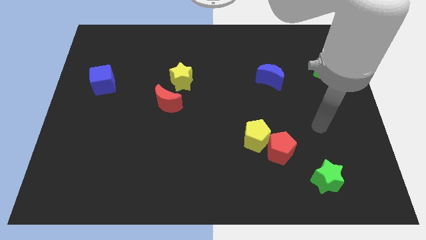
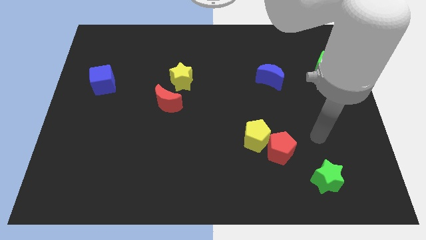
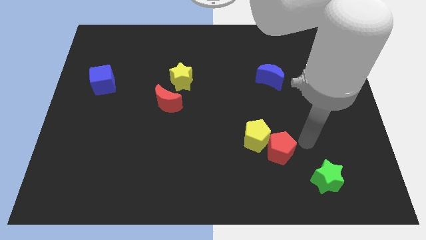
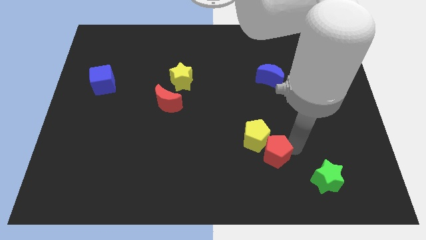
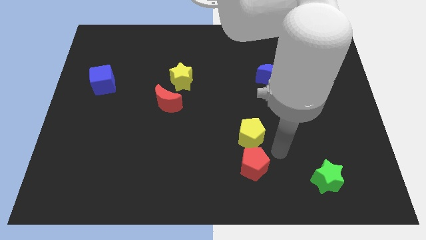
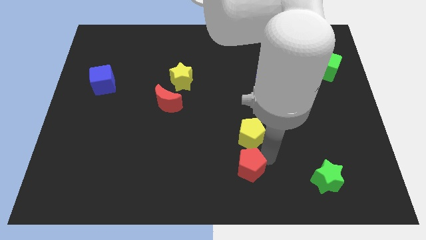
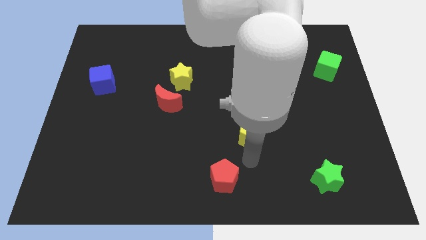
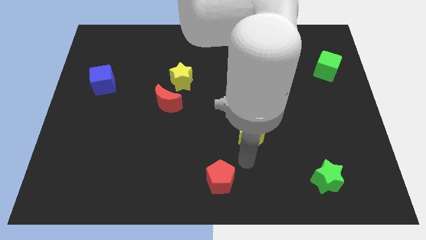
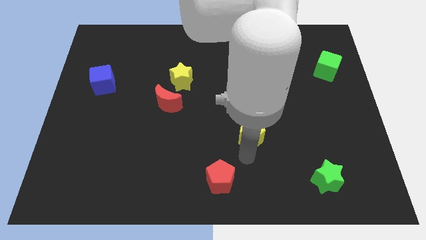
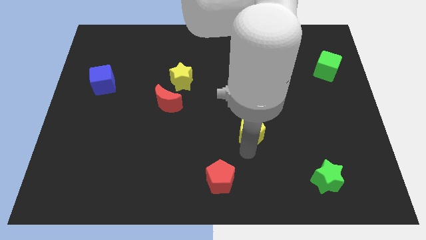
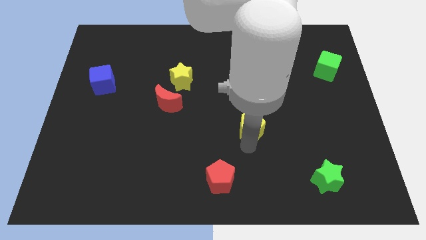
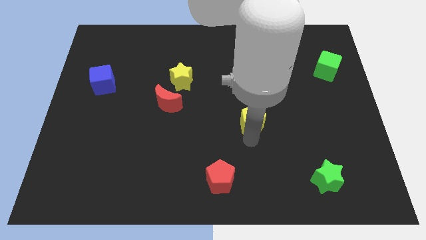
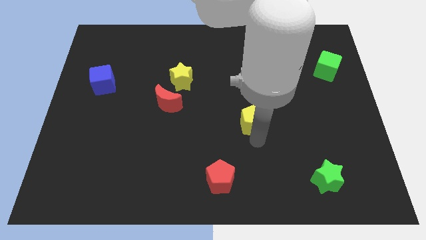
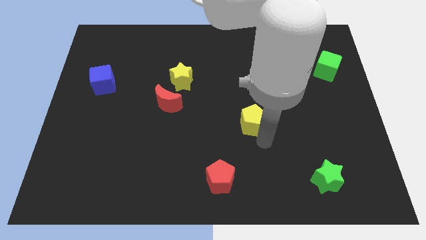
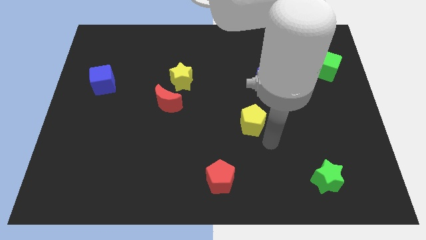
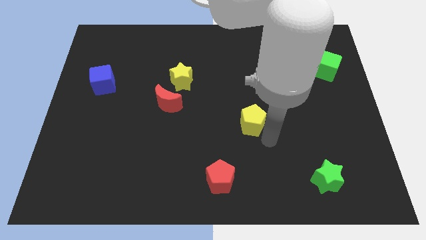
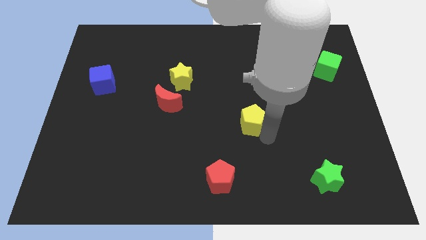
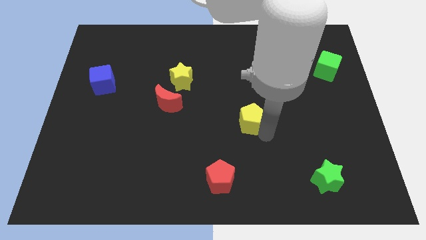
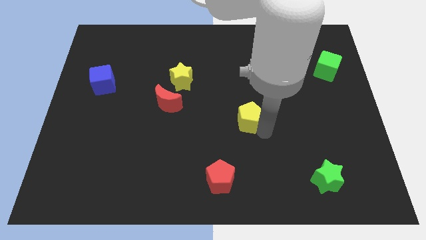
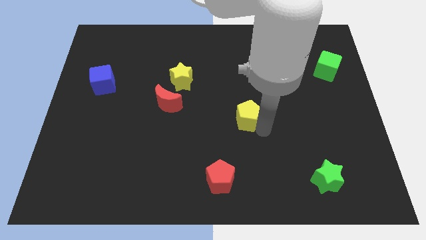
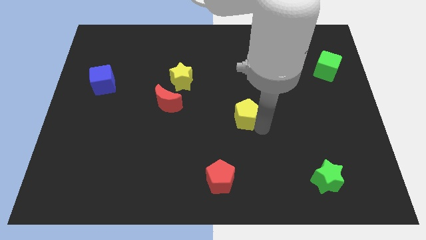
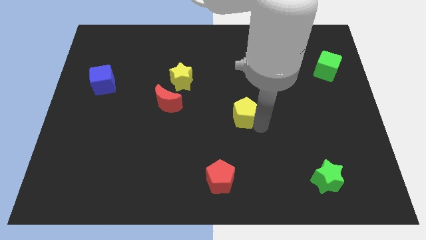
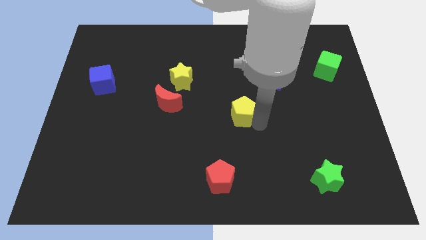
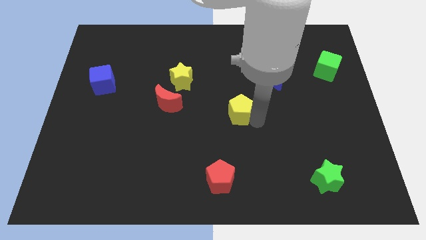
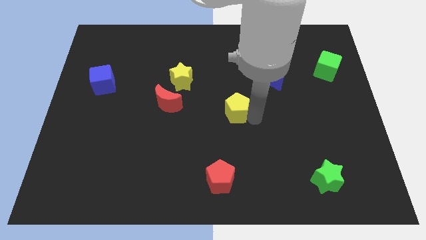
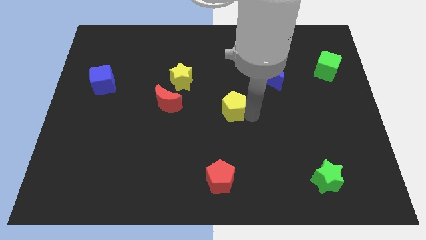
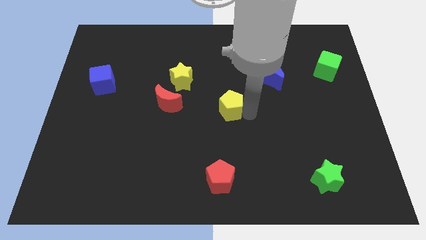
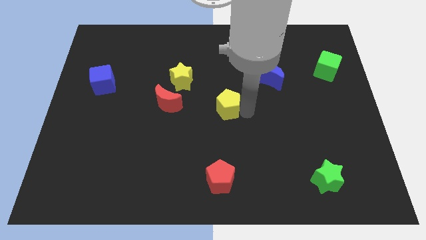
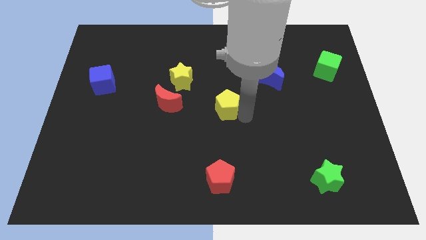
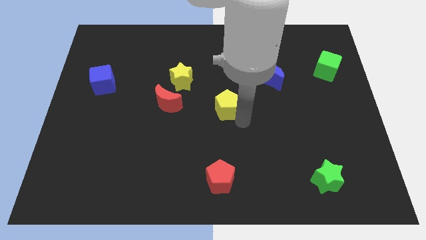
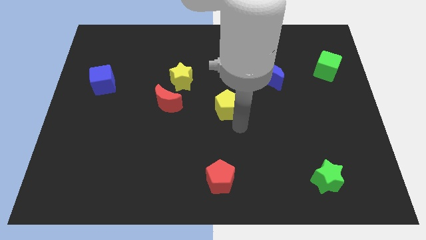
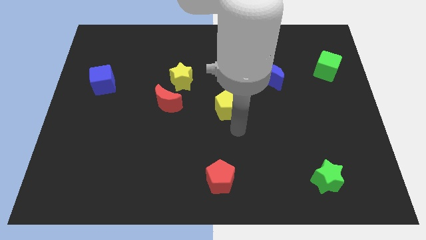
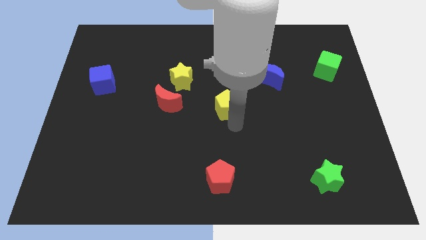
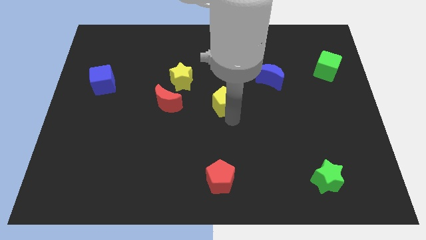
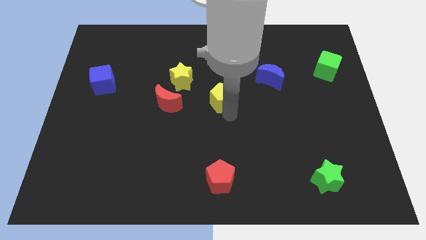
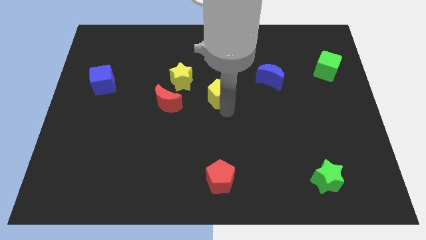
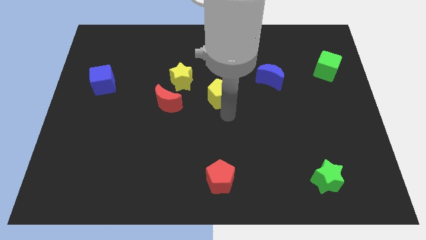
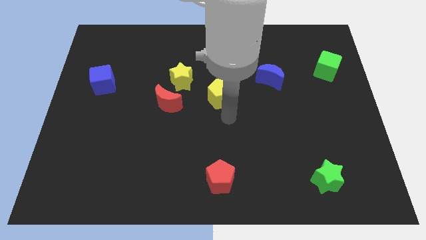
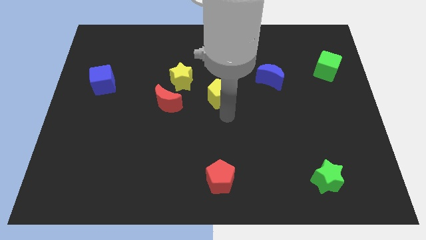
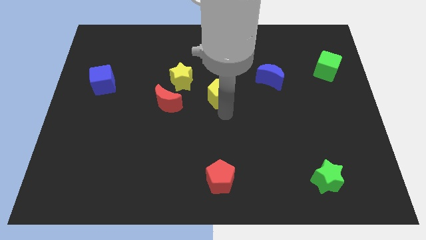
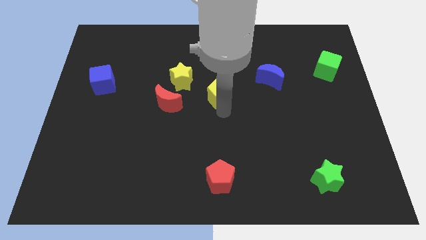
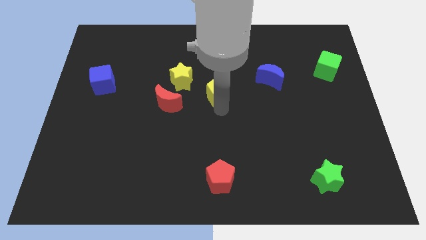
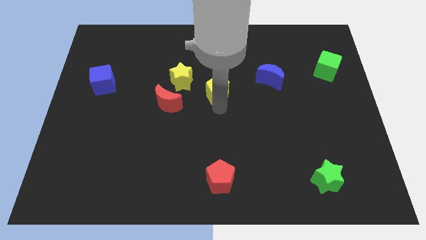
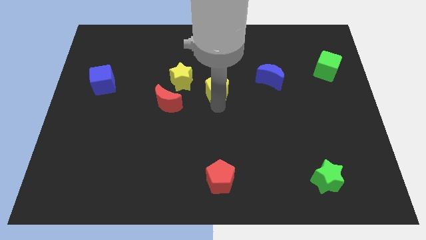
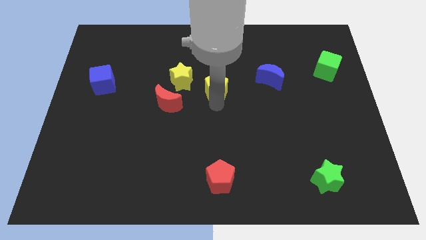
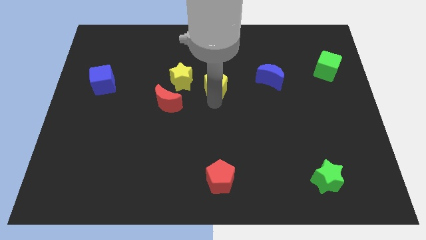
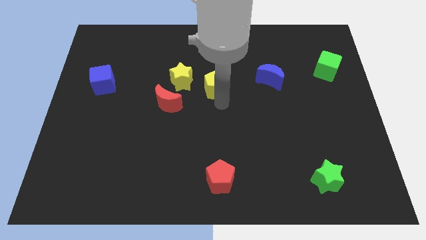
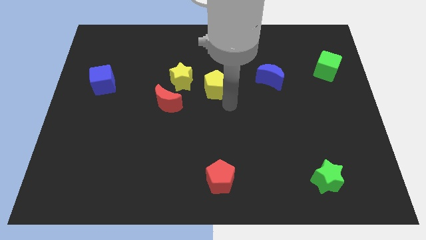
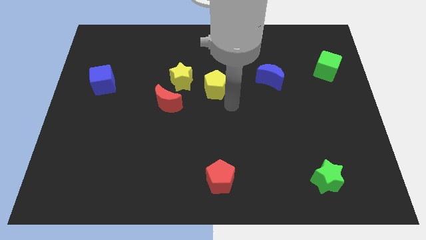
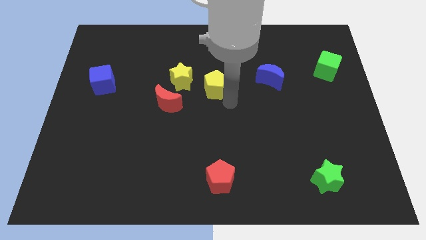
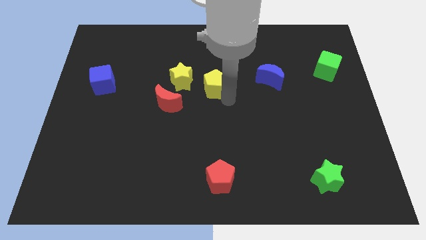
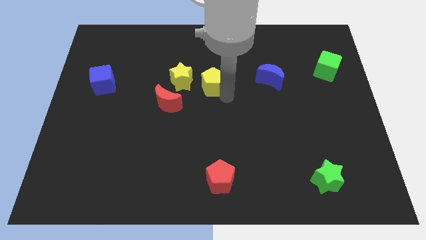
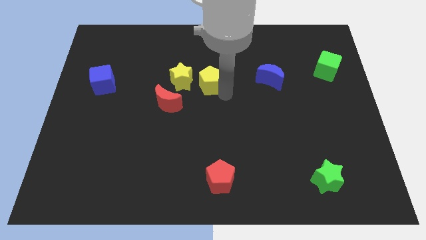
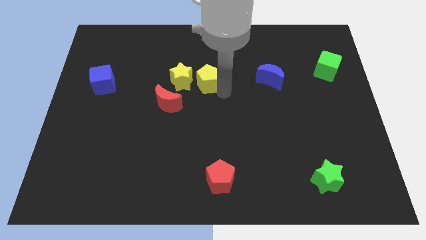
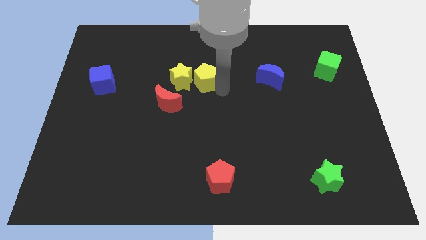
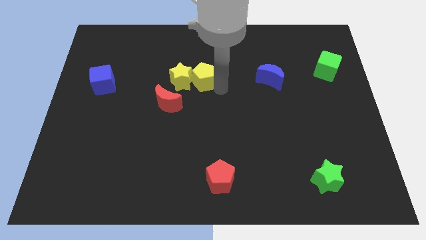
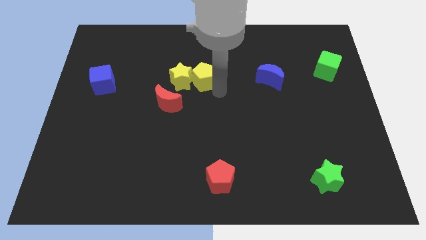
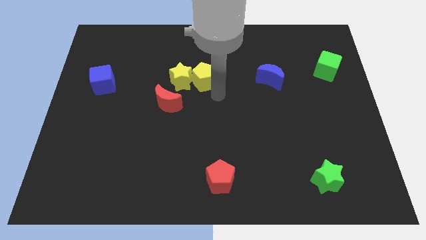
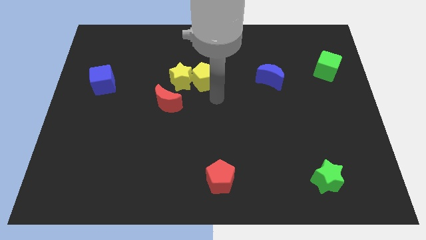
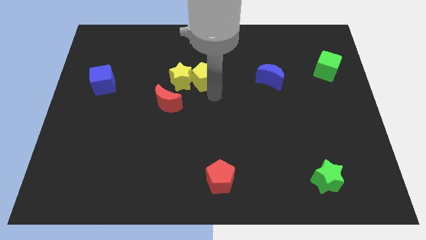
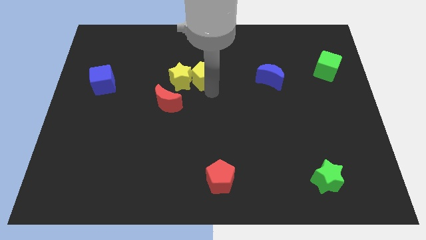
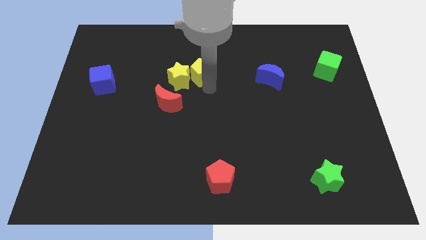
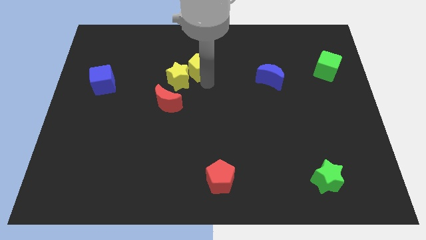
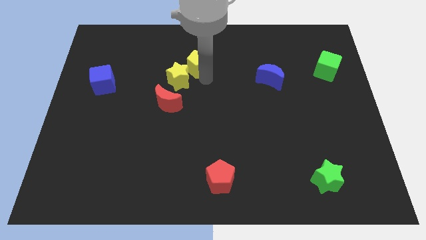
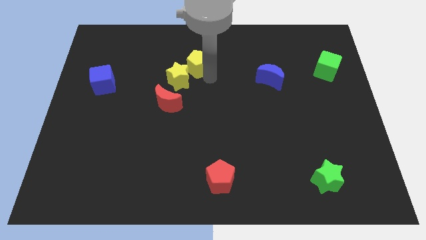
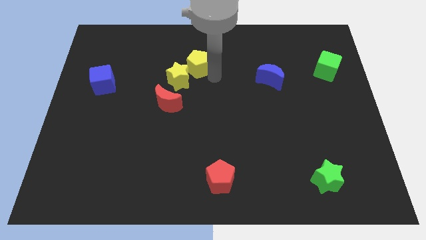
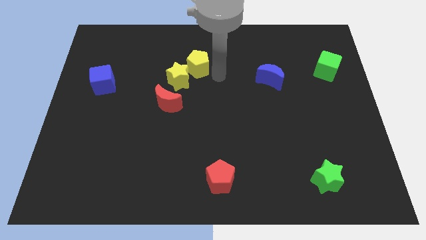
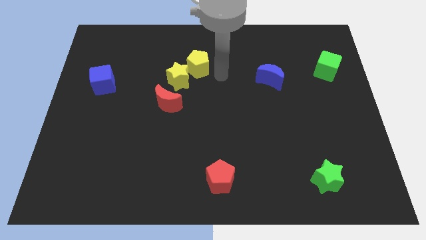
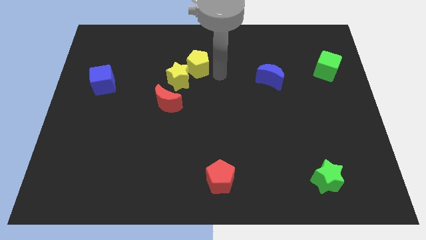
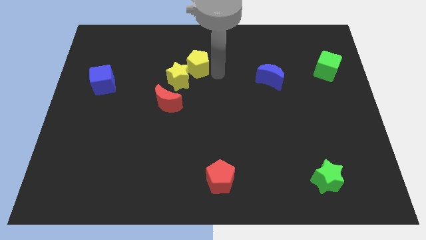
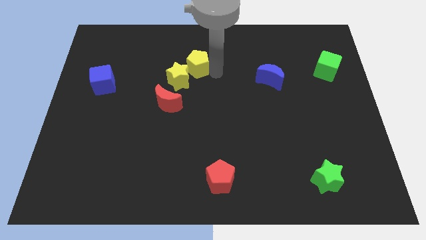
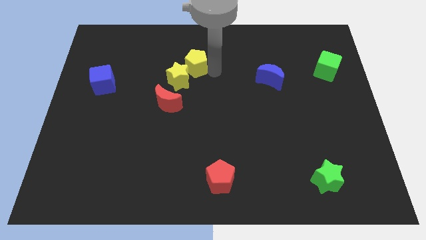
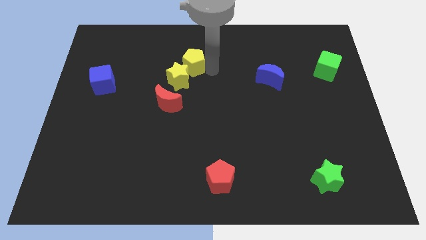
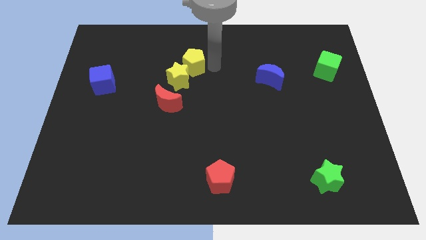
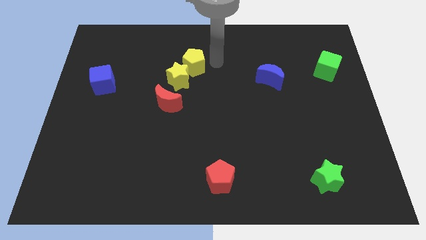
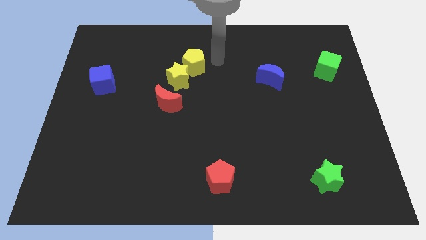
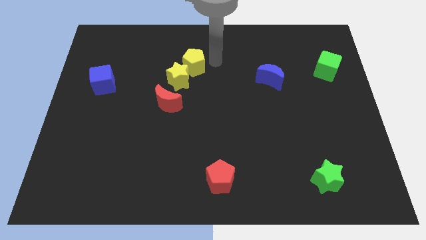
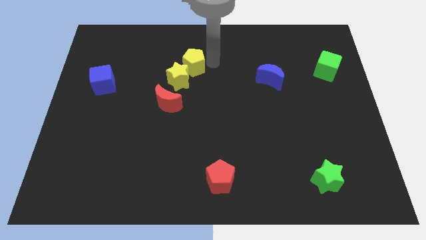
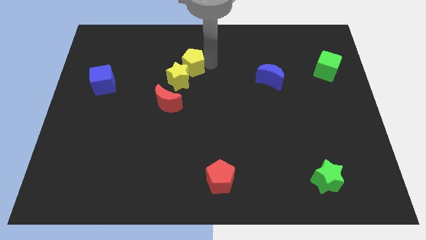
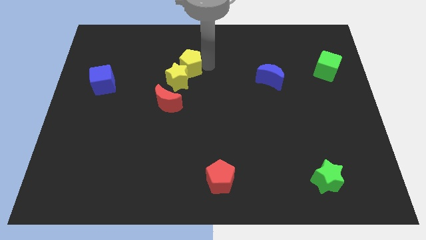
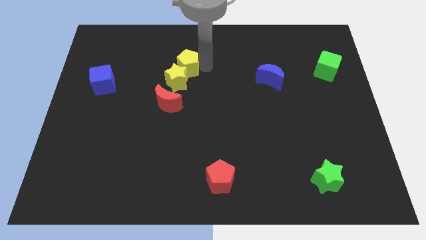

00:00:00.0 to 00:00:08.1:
push the yellow pentagon to the top of the red moon

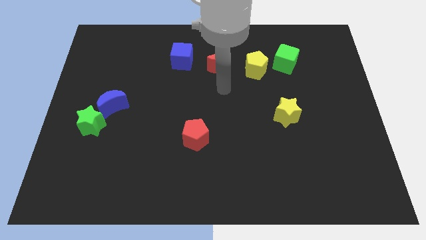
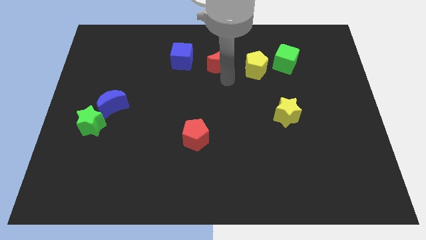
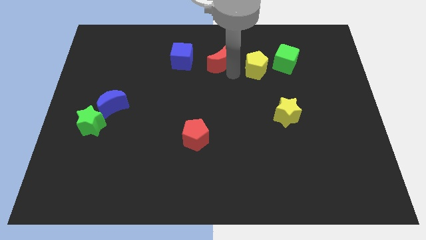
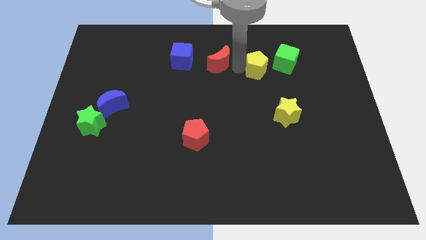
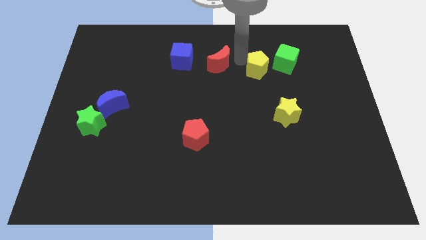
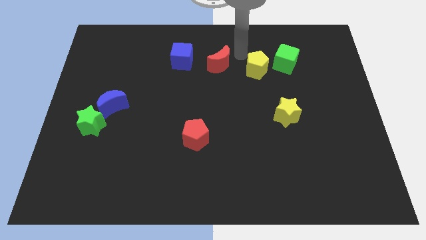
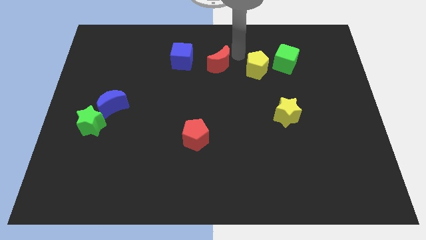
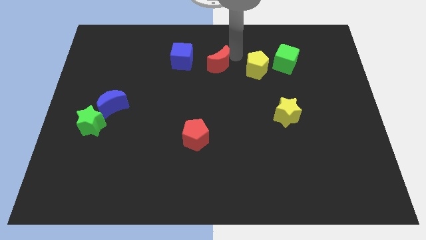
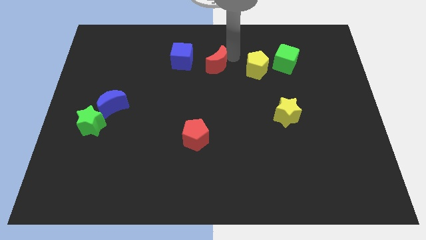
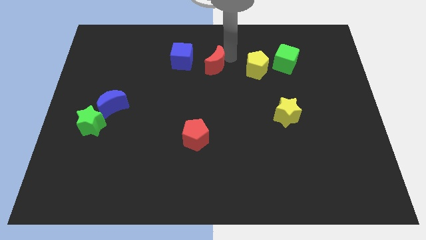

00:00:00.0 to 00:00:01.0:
slide the red moon to the bottom right side of the blue cube
